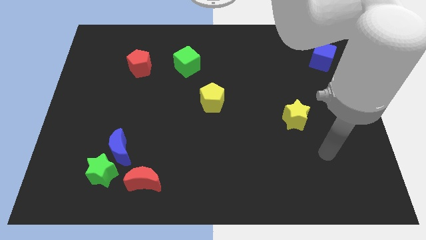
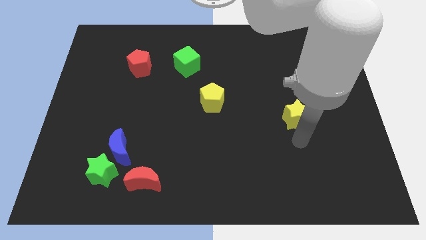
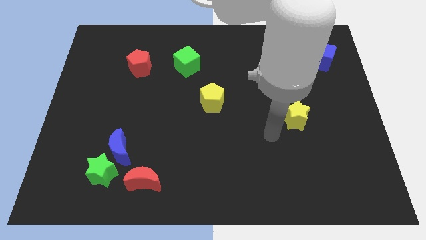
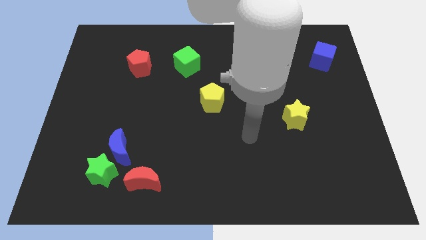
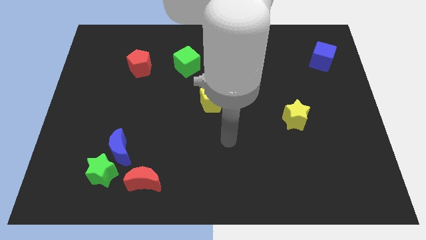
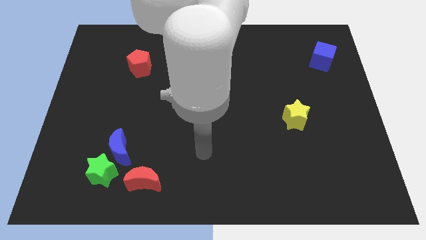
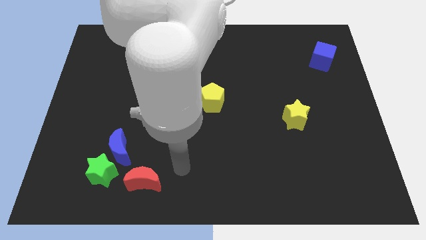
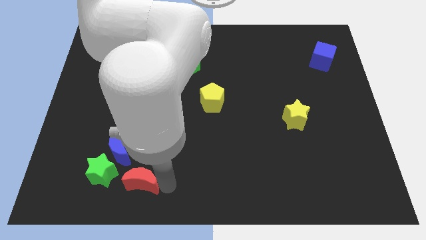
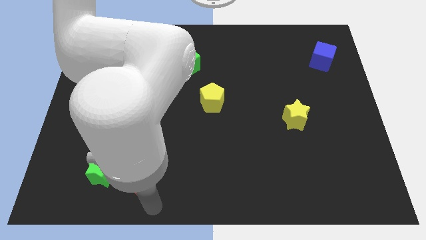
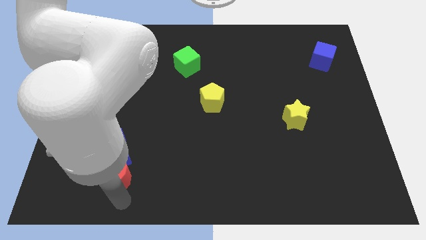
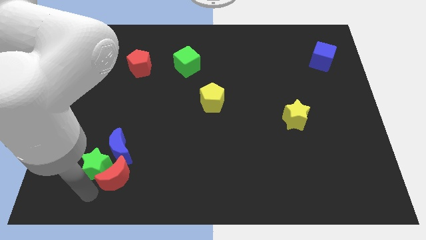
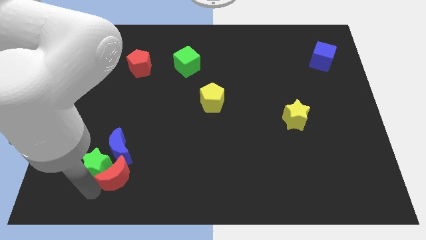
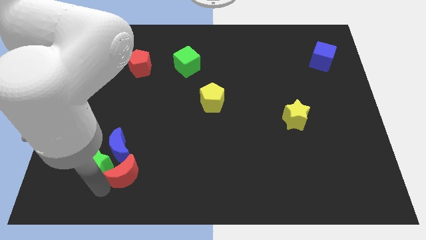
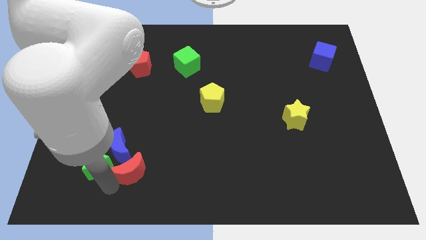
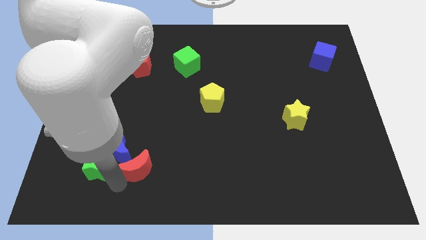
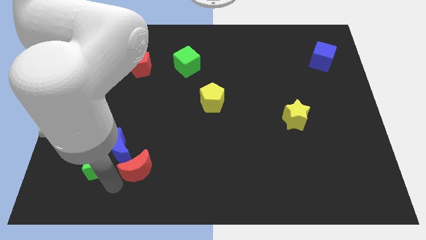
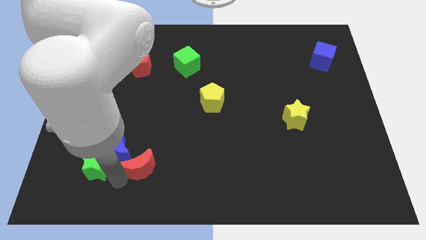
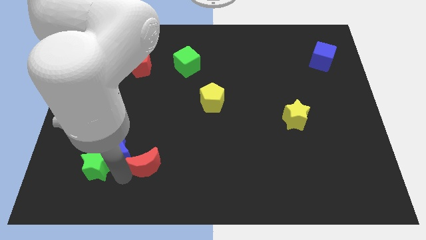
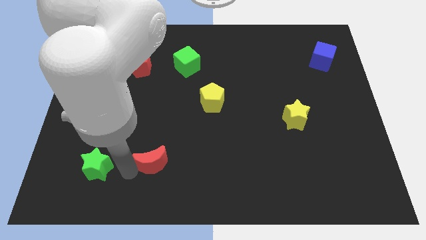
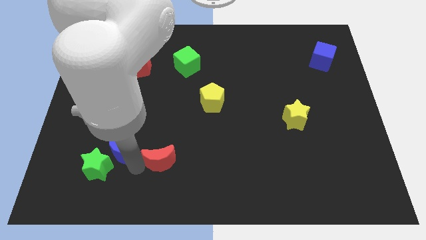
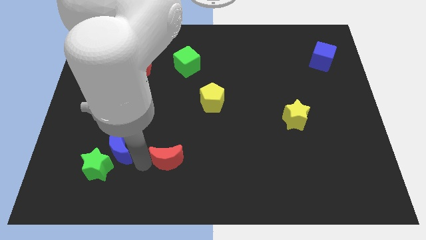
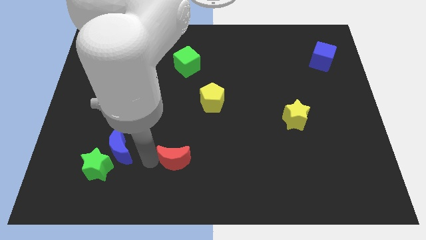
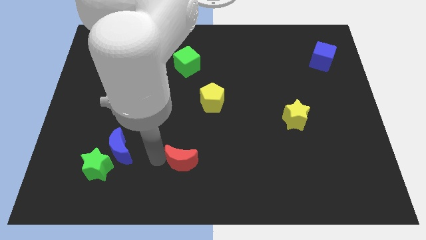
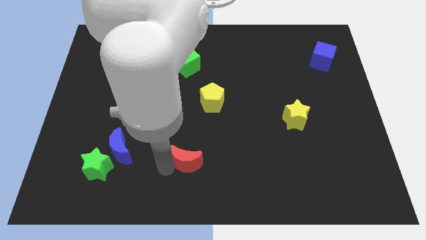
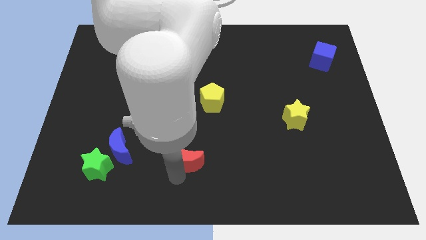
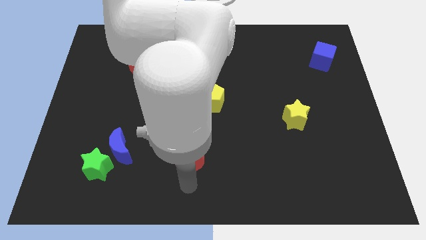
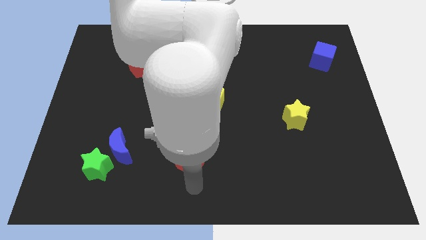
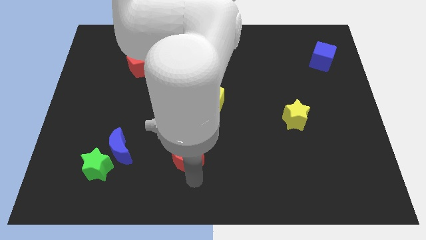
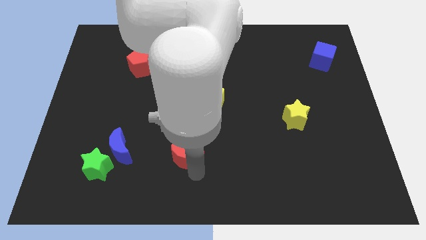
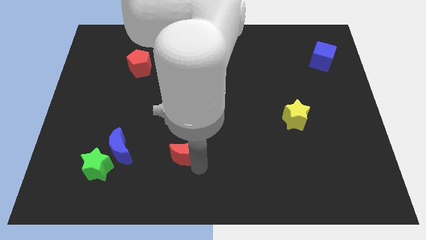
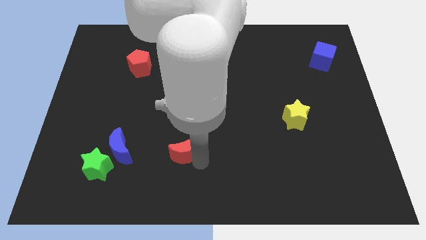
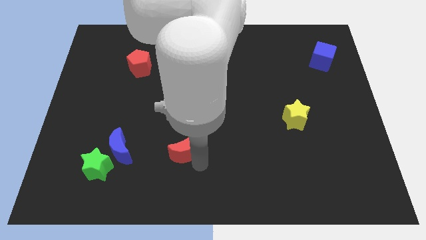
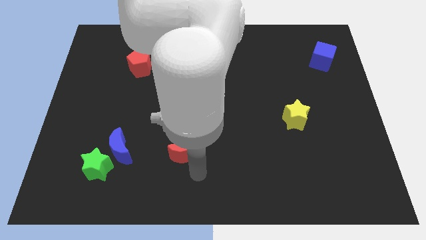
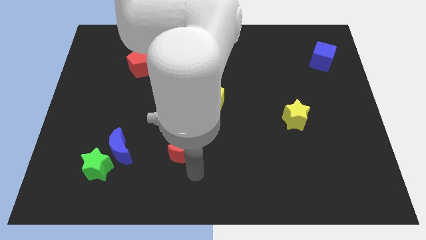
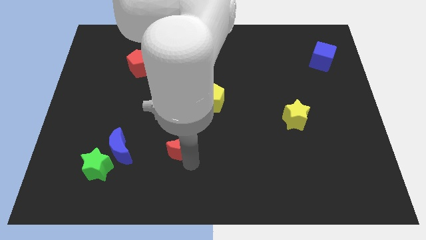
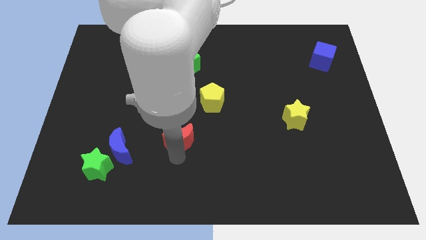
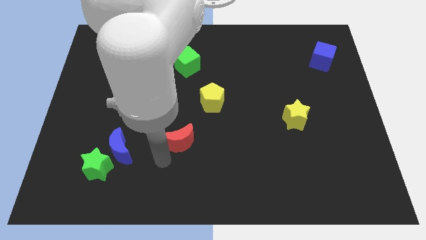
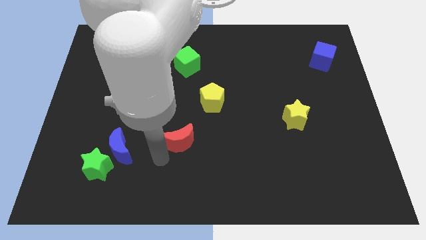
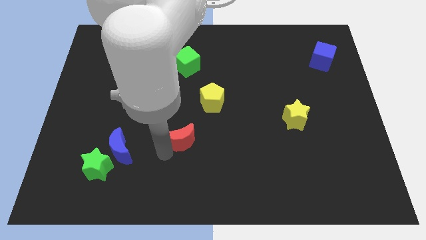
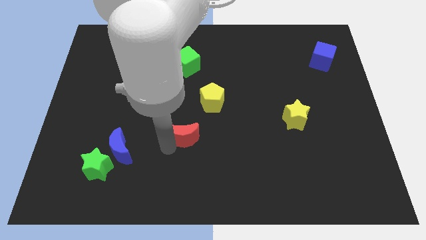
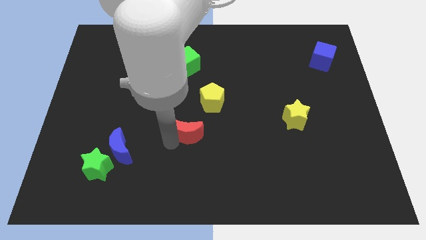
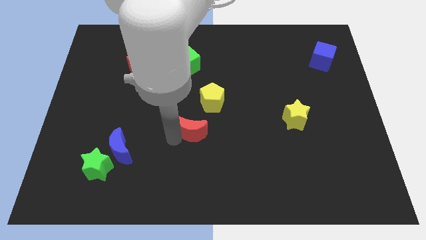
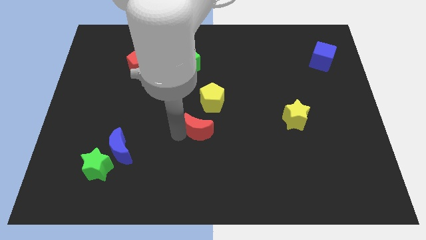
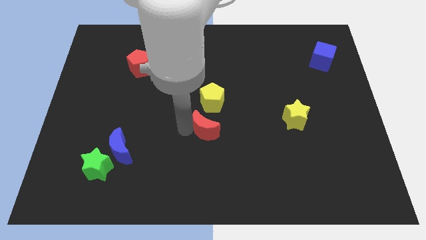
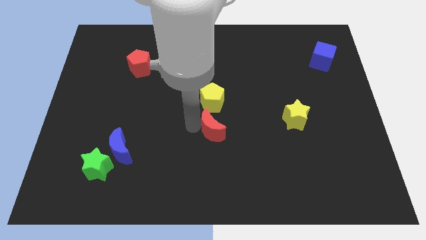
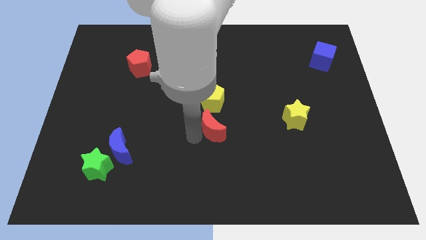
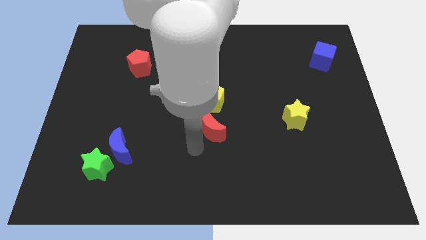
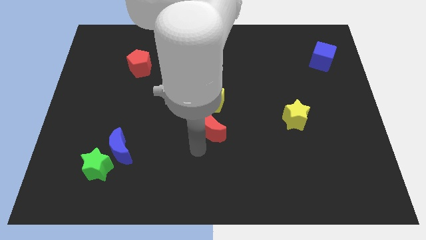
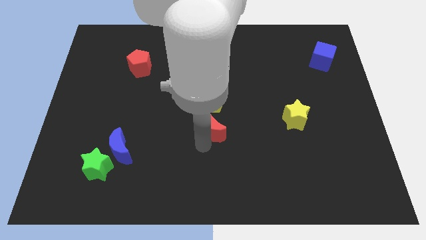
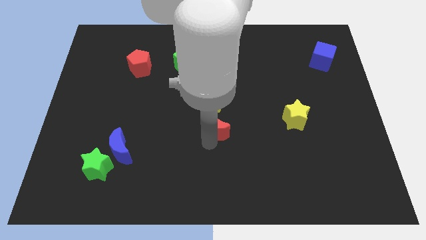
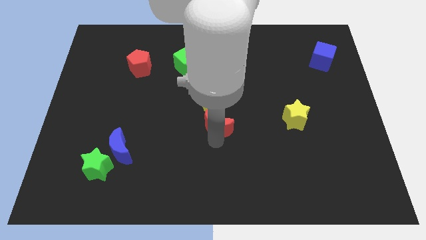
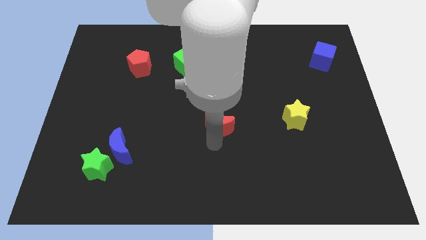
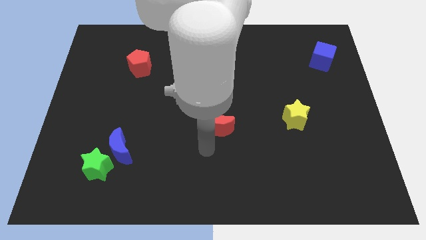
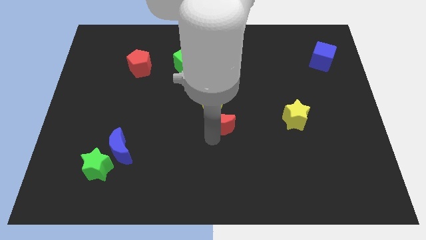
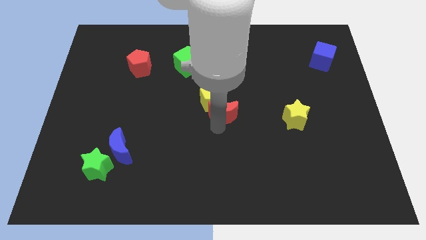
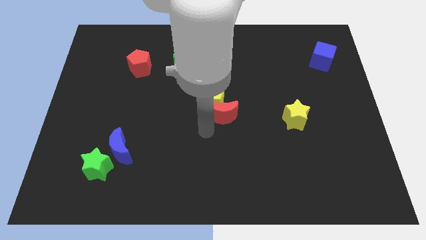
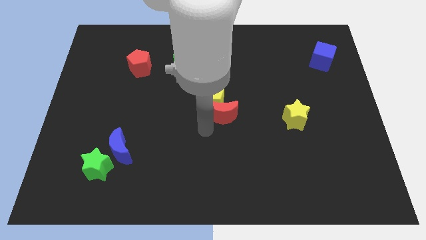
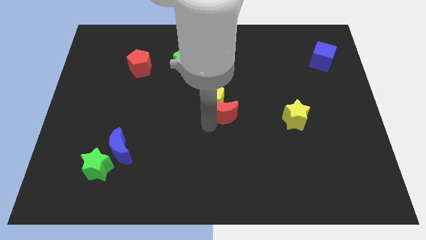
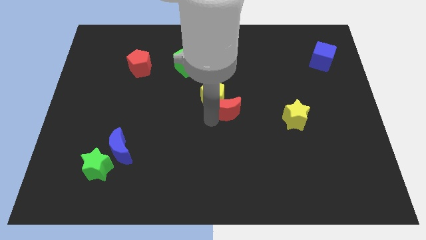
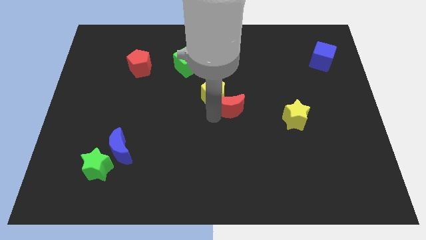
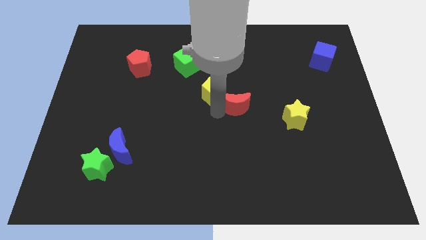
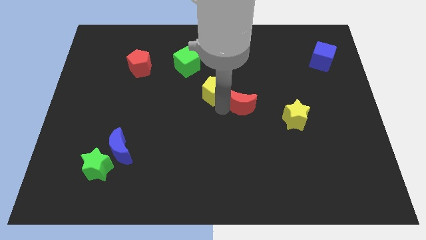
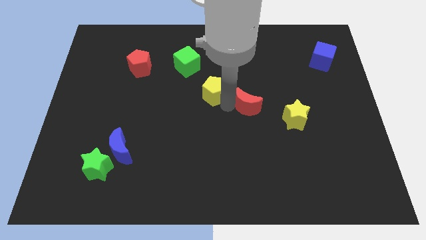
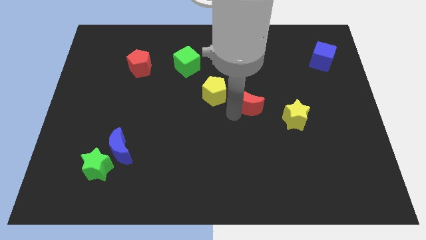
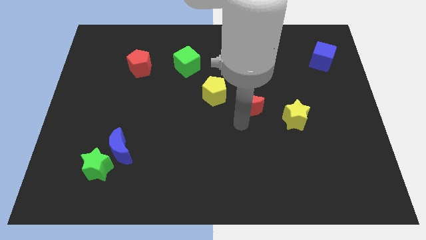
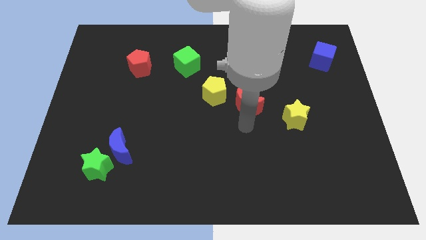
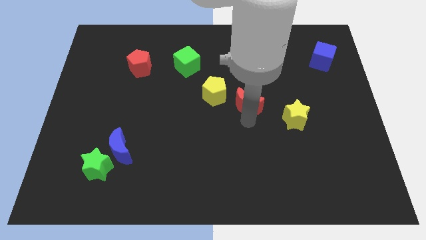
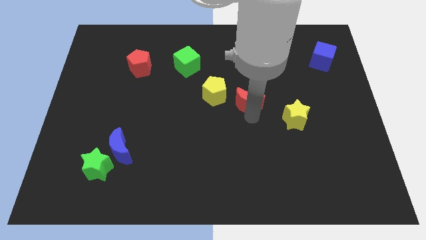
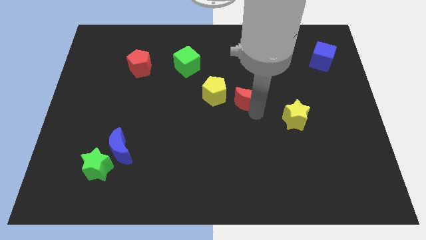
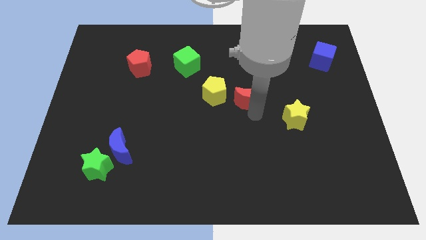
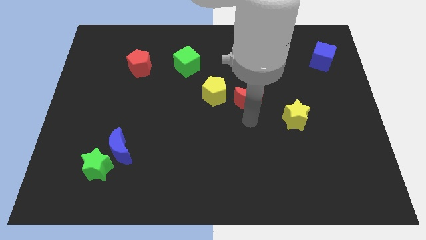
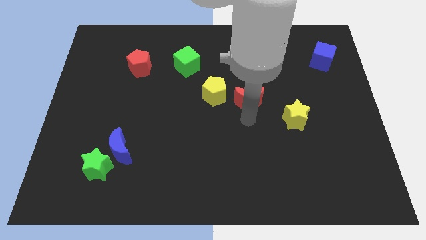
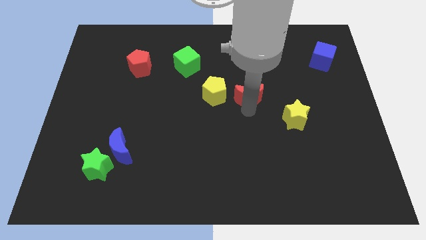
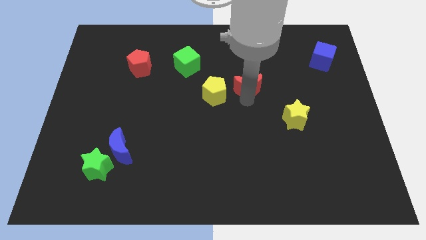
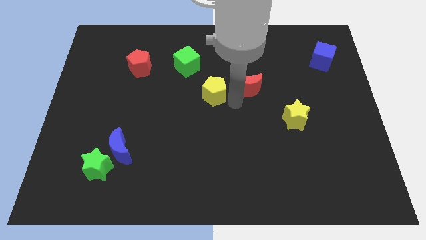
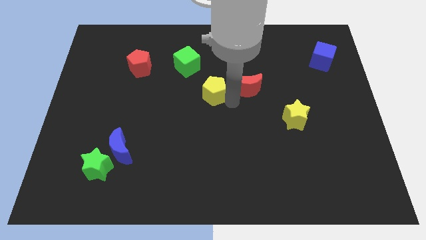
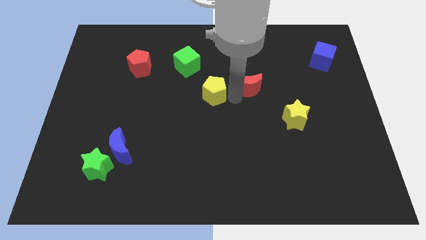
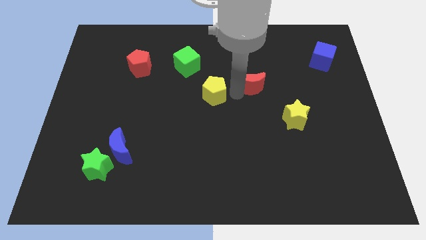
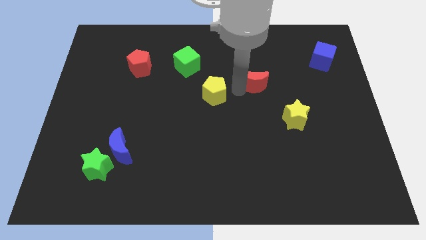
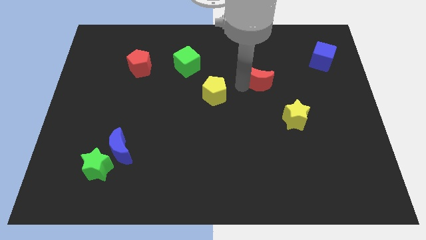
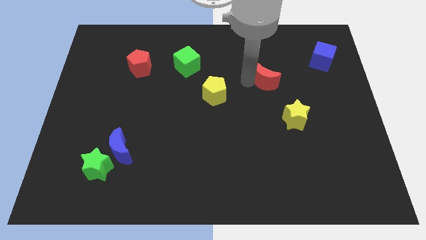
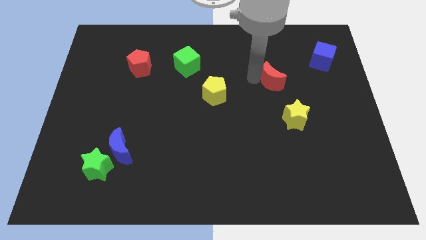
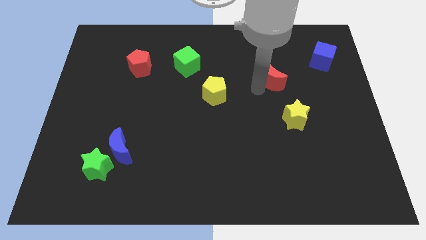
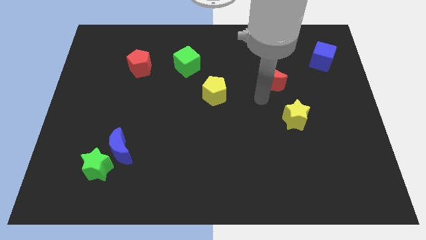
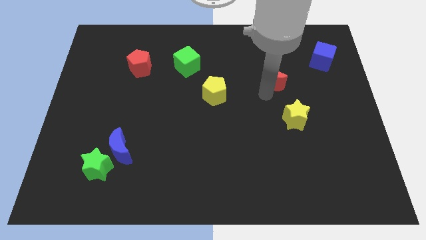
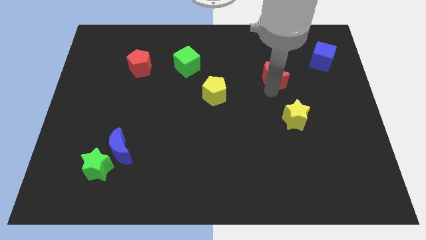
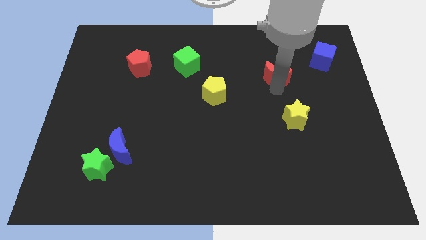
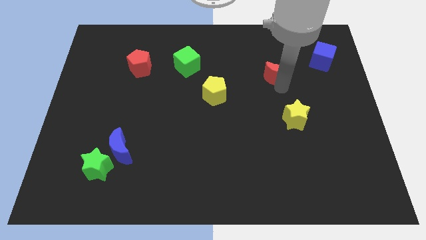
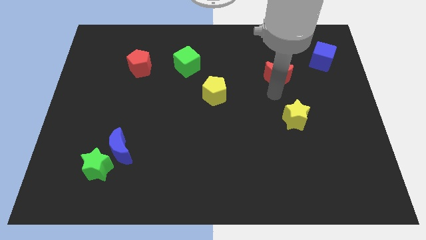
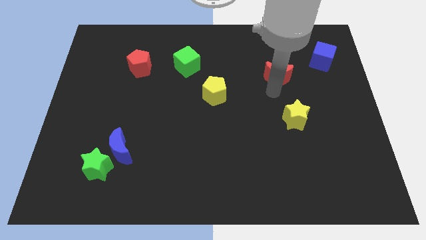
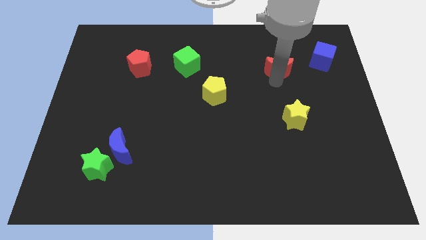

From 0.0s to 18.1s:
move the red moon just left of the blue cube
